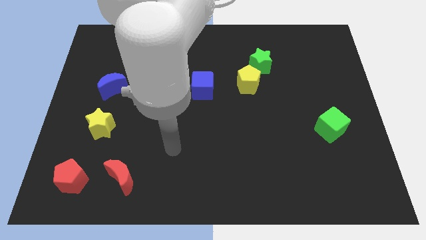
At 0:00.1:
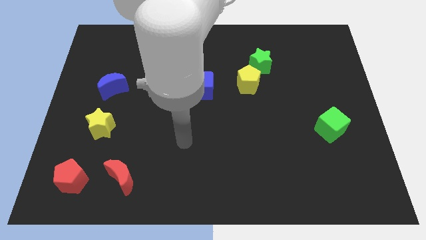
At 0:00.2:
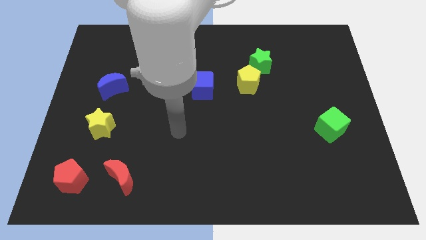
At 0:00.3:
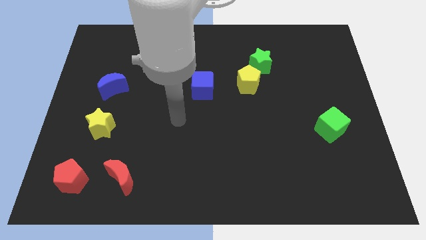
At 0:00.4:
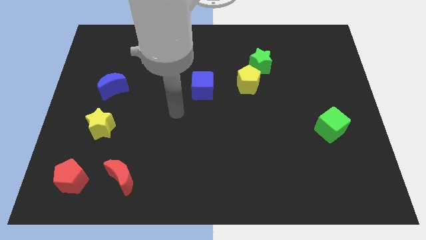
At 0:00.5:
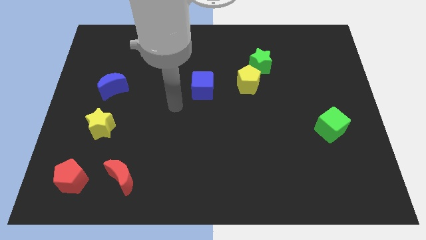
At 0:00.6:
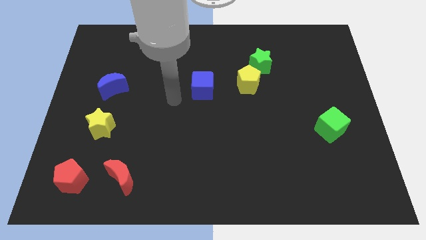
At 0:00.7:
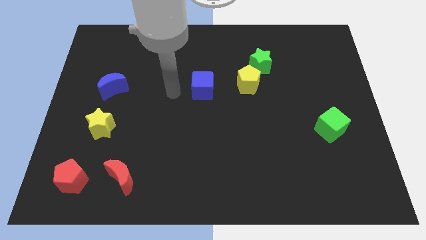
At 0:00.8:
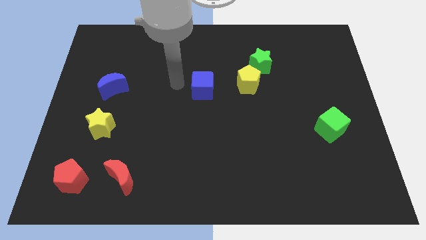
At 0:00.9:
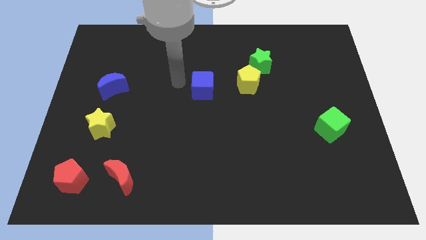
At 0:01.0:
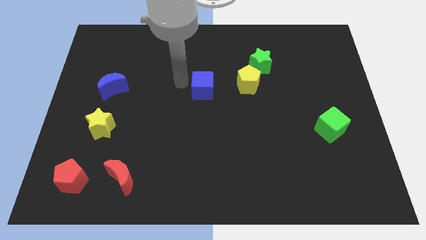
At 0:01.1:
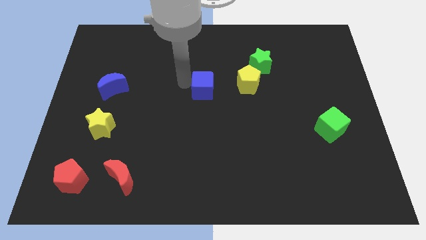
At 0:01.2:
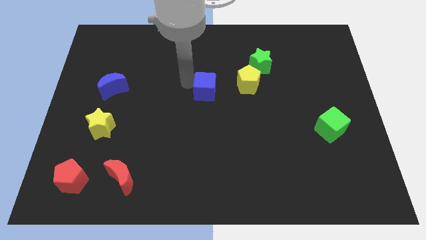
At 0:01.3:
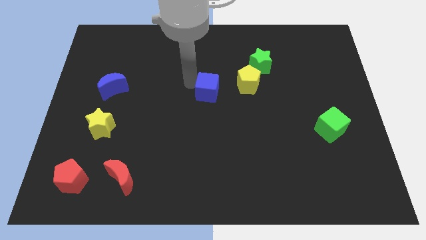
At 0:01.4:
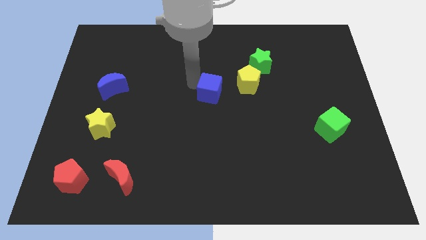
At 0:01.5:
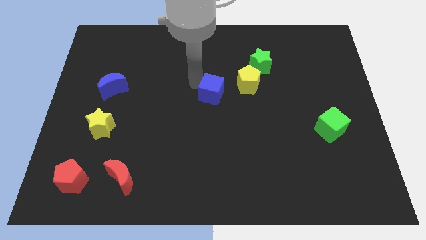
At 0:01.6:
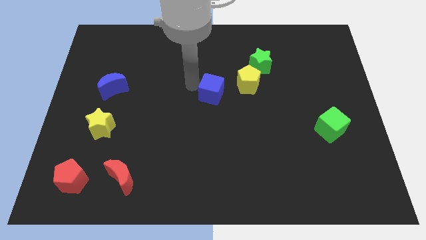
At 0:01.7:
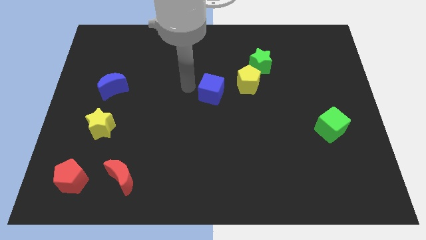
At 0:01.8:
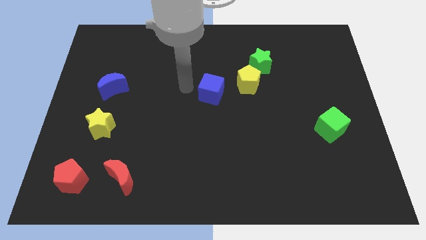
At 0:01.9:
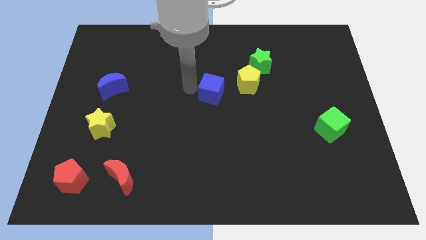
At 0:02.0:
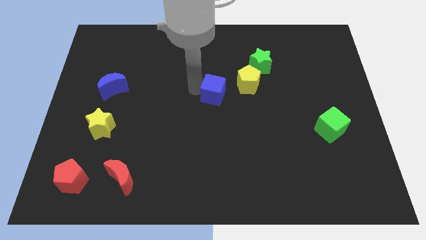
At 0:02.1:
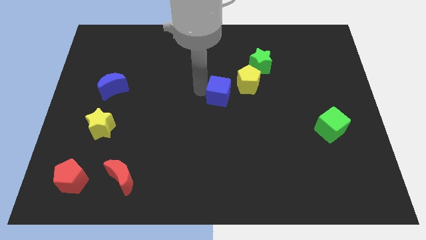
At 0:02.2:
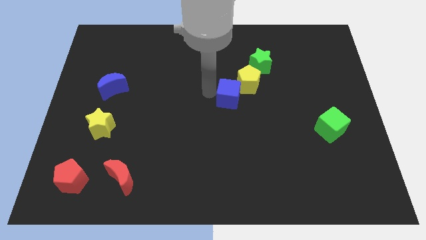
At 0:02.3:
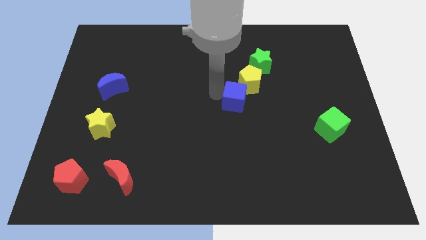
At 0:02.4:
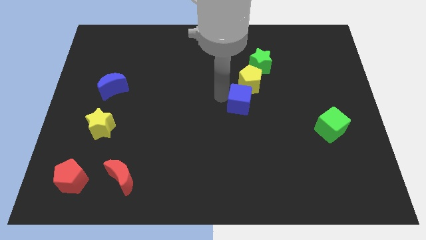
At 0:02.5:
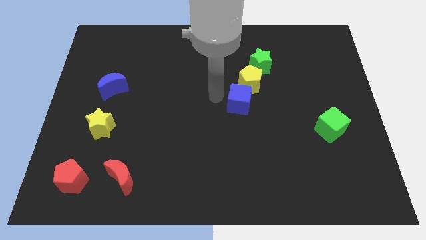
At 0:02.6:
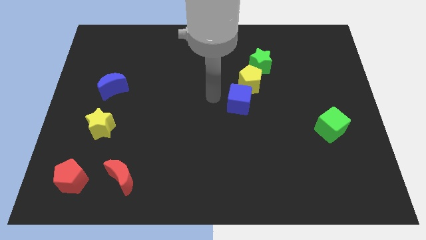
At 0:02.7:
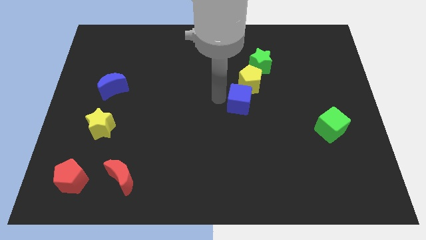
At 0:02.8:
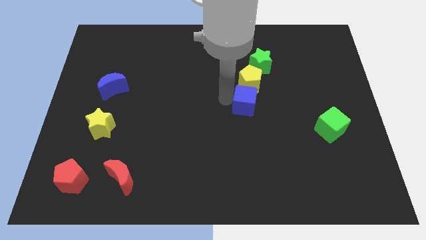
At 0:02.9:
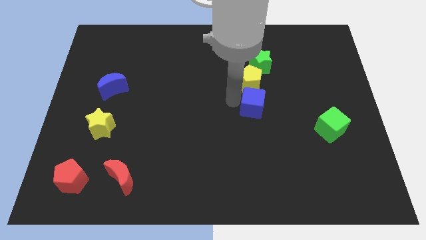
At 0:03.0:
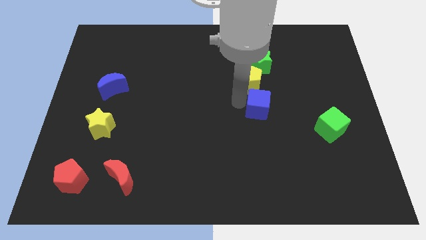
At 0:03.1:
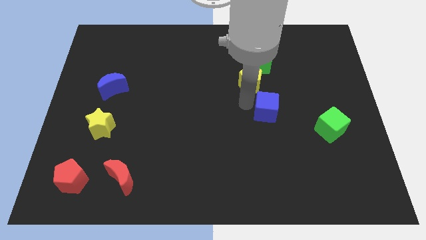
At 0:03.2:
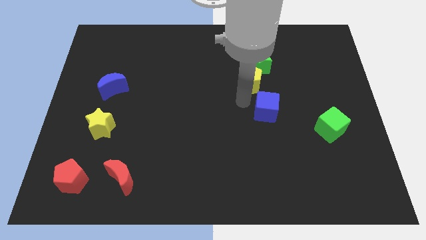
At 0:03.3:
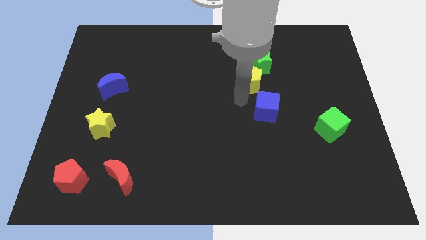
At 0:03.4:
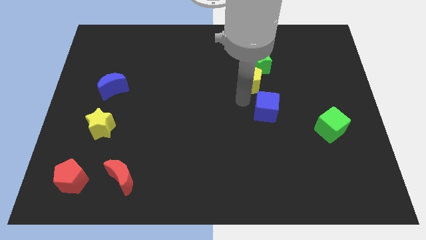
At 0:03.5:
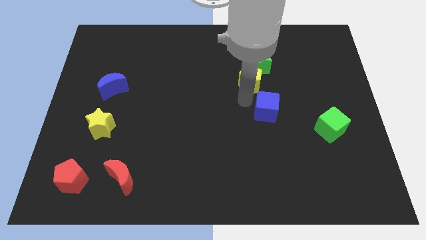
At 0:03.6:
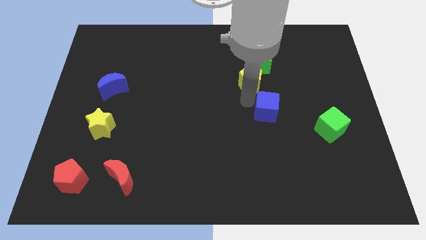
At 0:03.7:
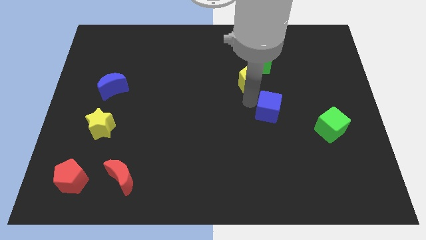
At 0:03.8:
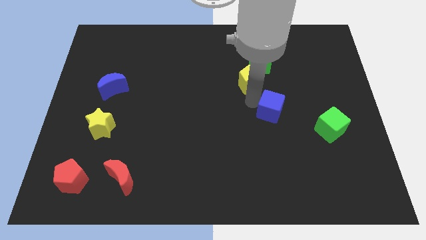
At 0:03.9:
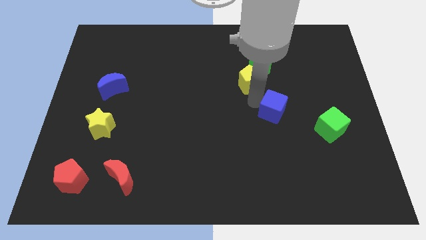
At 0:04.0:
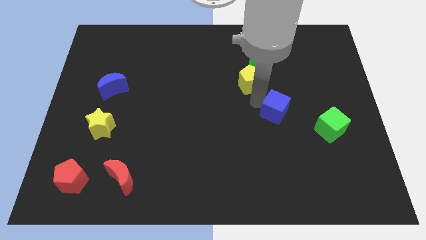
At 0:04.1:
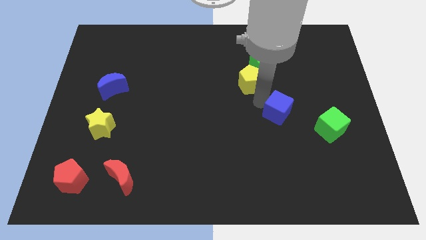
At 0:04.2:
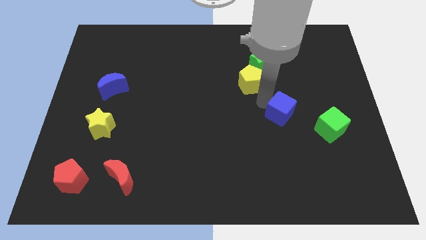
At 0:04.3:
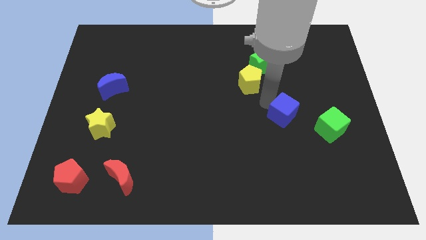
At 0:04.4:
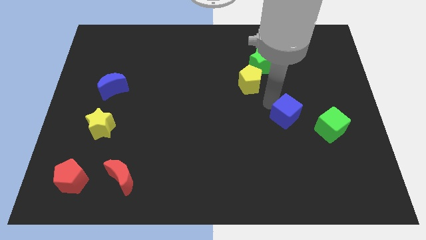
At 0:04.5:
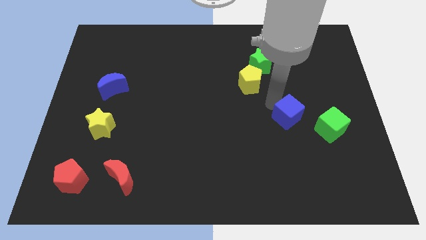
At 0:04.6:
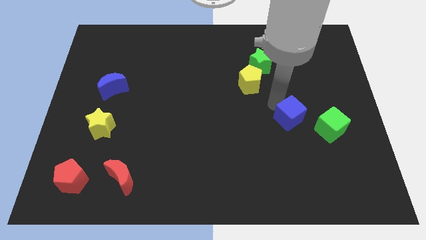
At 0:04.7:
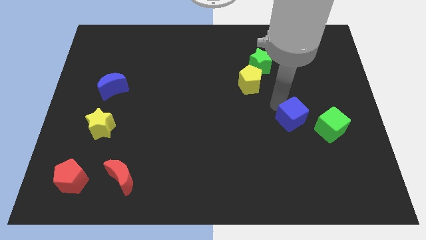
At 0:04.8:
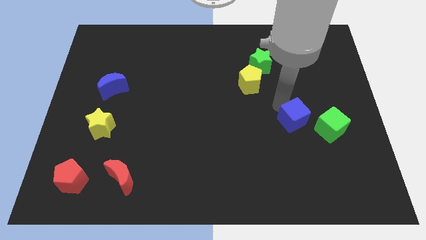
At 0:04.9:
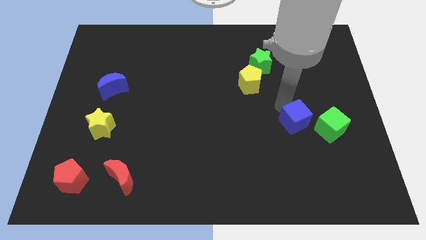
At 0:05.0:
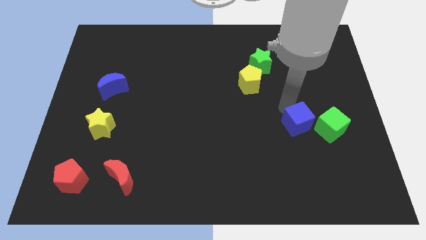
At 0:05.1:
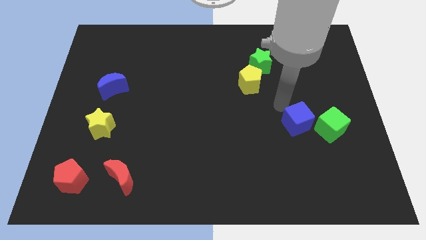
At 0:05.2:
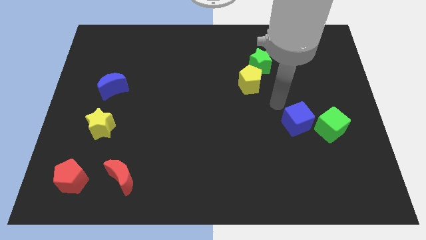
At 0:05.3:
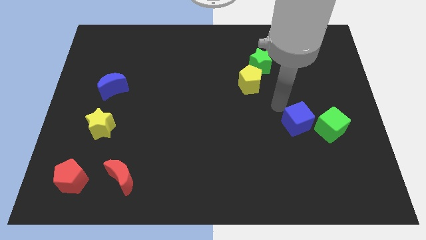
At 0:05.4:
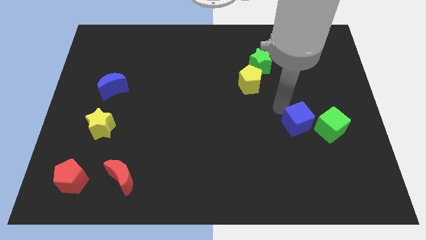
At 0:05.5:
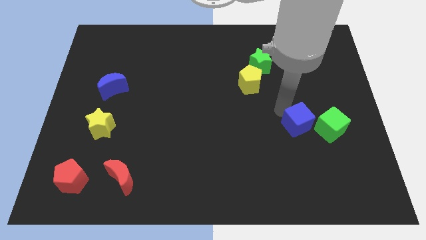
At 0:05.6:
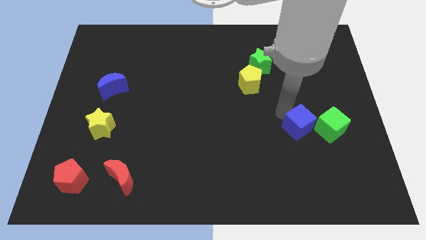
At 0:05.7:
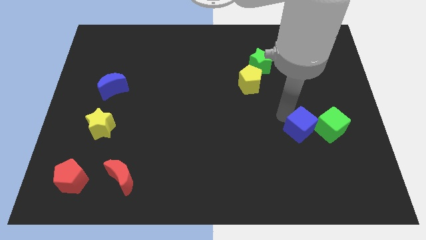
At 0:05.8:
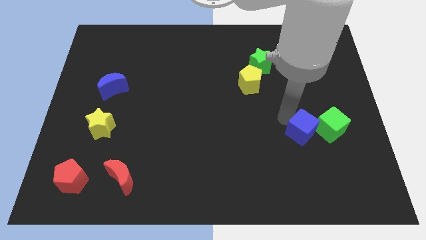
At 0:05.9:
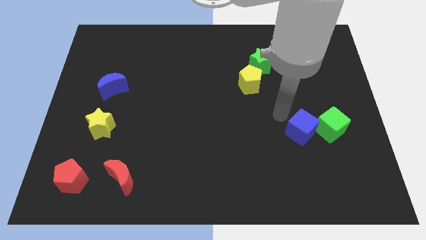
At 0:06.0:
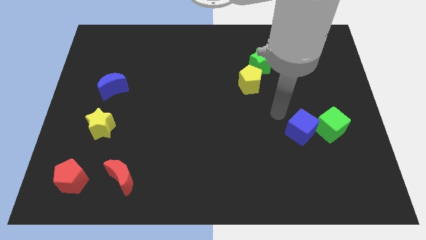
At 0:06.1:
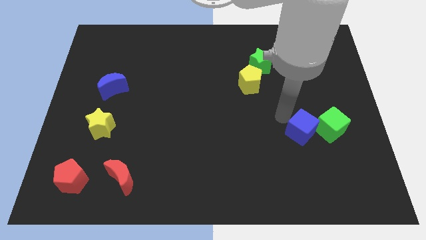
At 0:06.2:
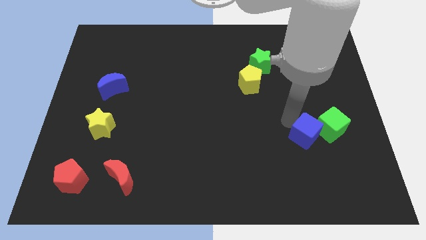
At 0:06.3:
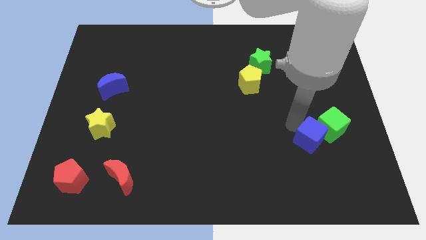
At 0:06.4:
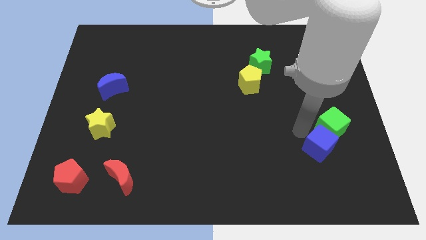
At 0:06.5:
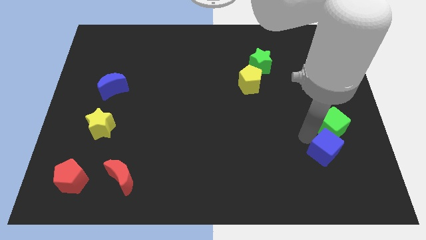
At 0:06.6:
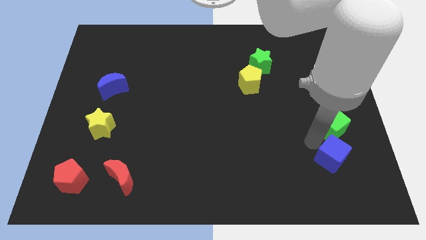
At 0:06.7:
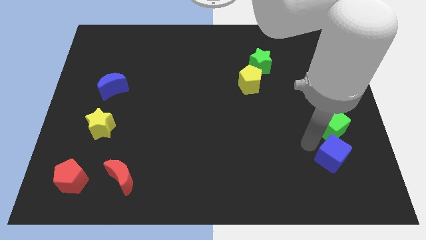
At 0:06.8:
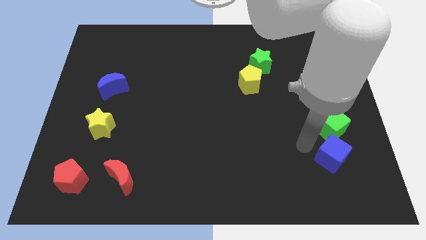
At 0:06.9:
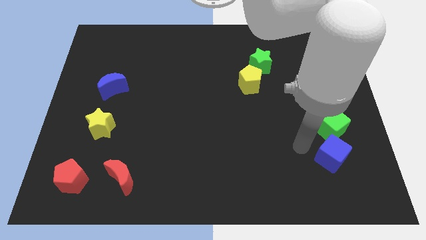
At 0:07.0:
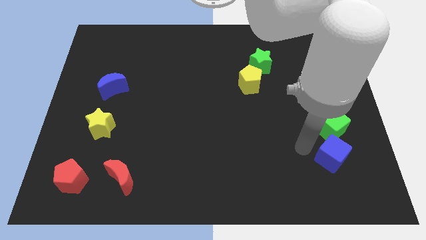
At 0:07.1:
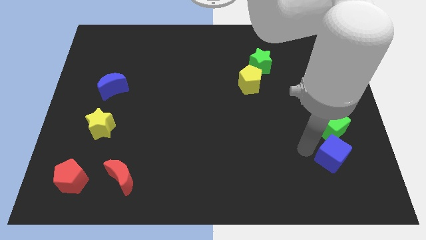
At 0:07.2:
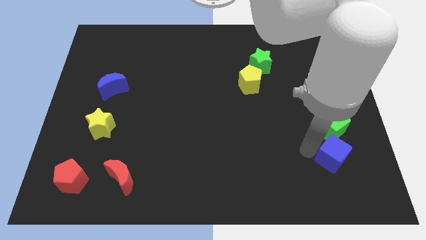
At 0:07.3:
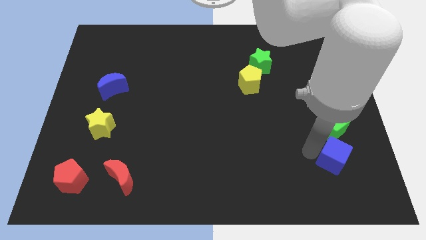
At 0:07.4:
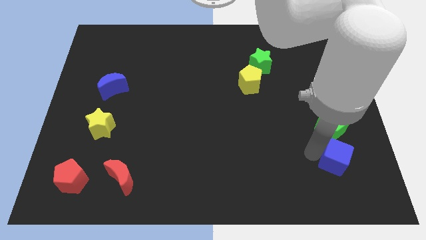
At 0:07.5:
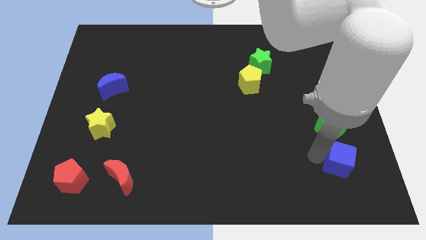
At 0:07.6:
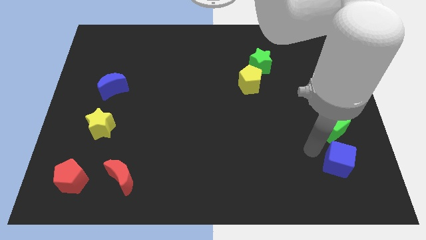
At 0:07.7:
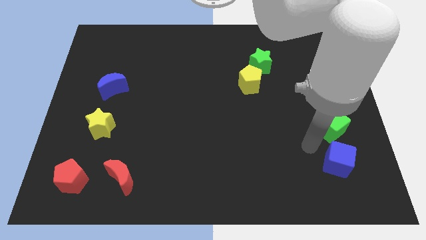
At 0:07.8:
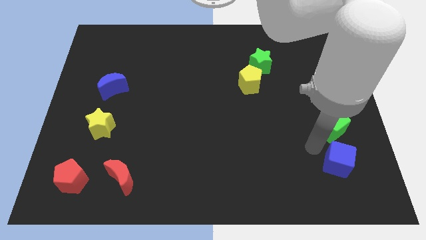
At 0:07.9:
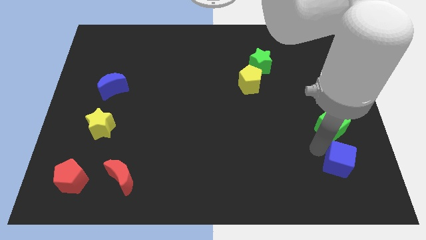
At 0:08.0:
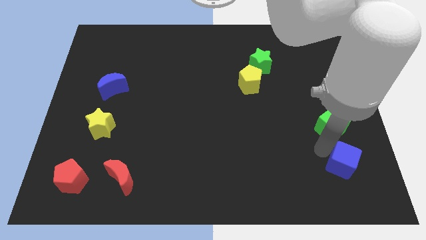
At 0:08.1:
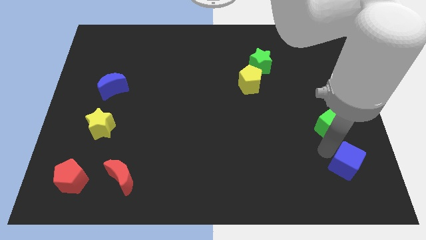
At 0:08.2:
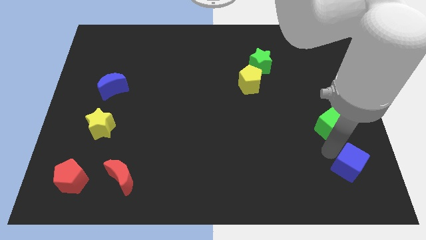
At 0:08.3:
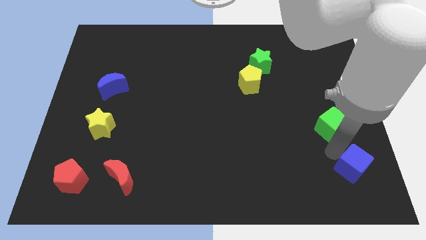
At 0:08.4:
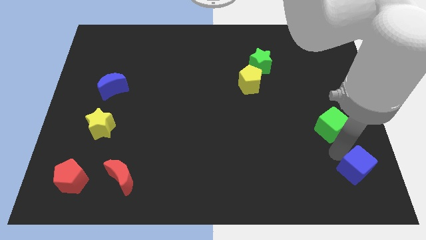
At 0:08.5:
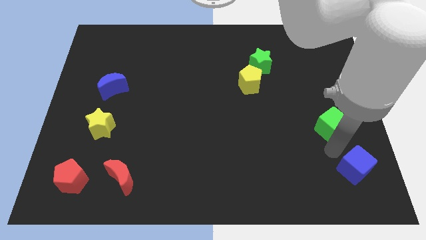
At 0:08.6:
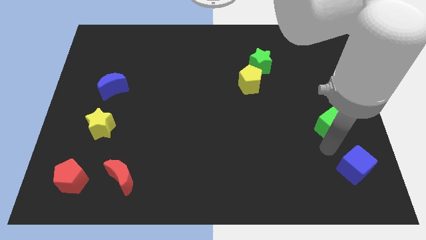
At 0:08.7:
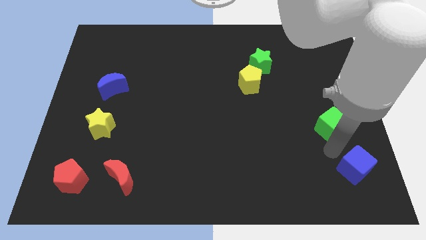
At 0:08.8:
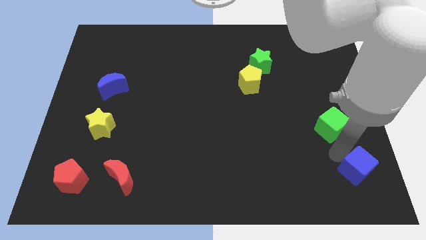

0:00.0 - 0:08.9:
move the blue cube to the bottom right corner
